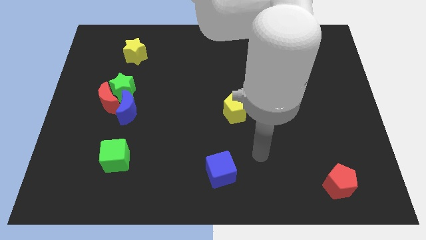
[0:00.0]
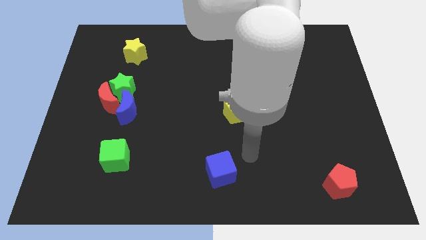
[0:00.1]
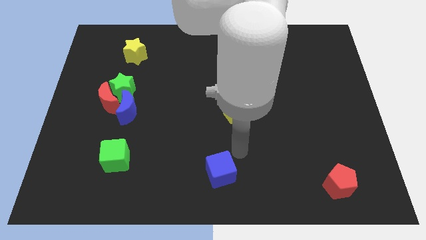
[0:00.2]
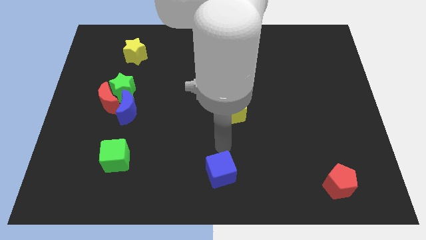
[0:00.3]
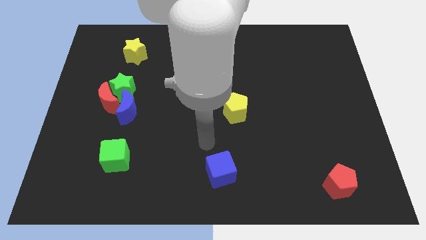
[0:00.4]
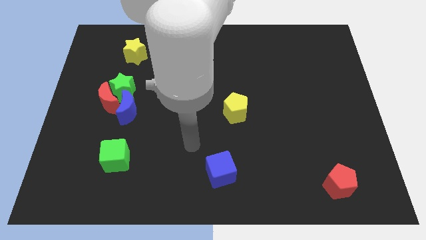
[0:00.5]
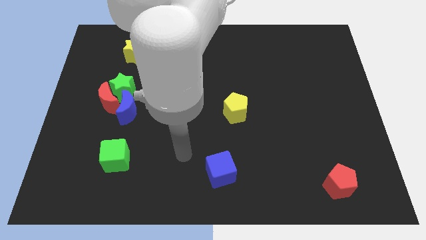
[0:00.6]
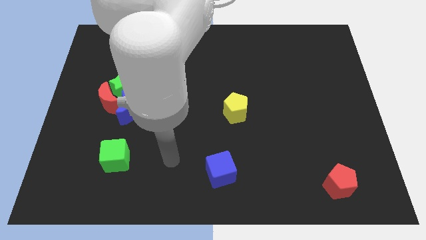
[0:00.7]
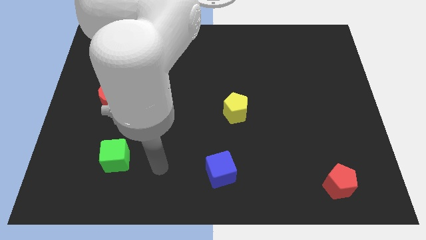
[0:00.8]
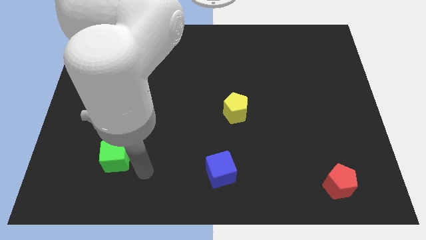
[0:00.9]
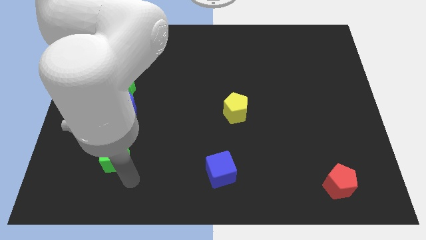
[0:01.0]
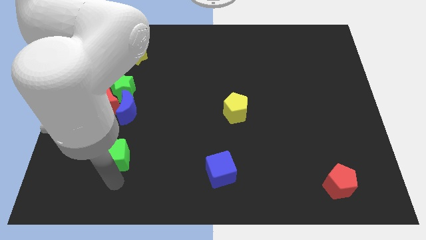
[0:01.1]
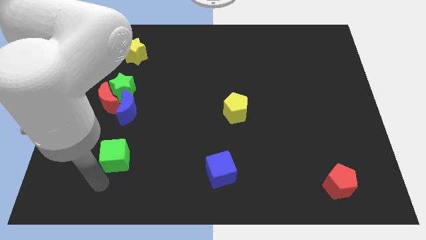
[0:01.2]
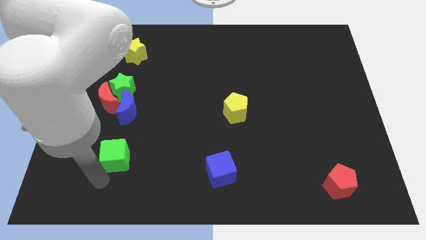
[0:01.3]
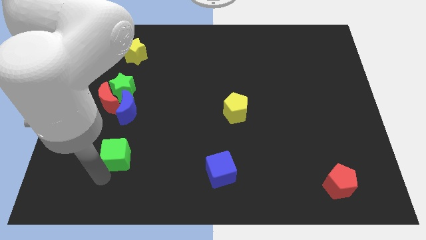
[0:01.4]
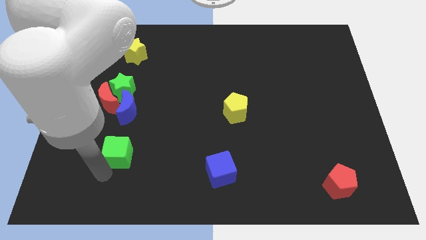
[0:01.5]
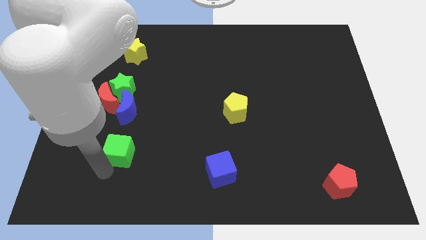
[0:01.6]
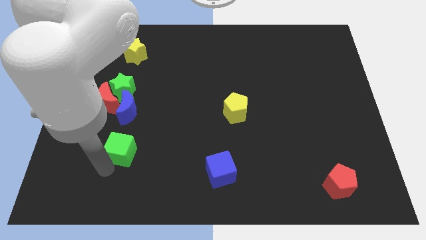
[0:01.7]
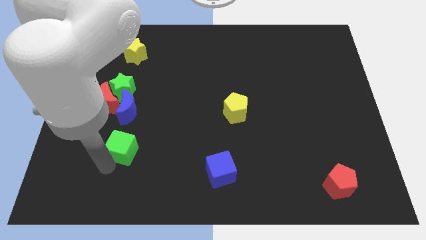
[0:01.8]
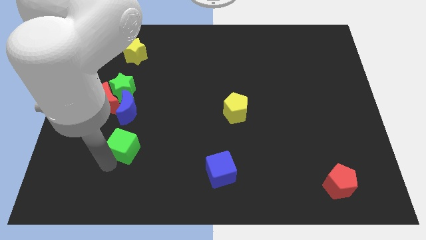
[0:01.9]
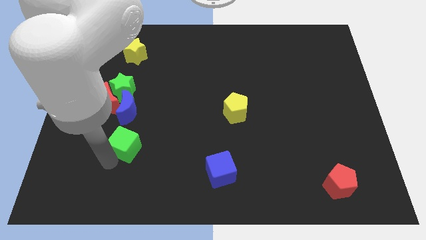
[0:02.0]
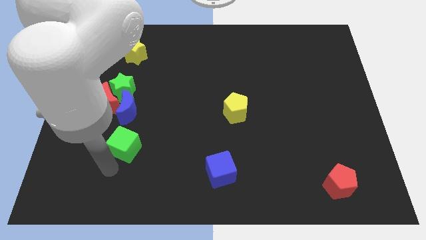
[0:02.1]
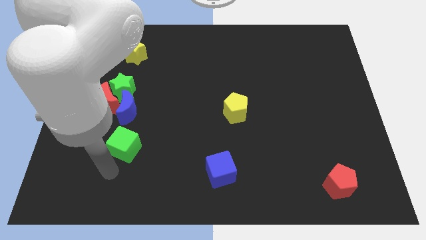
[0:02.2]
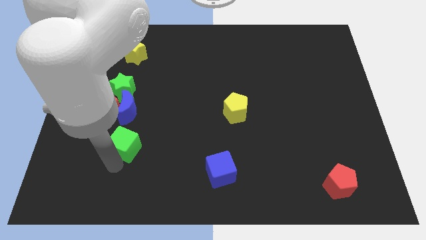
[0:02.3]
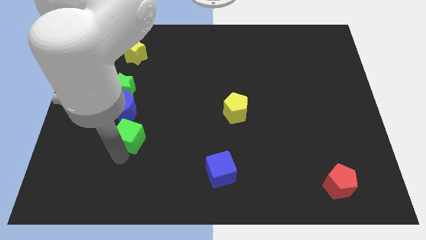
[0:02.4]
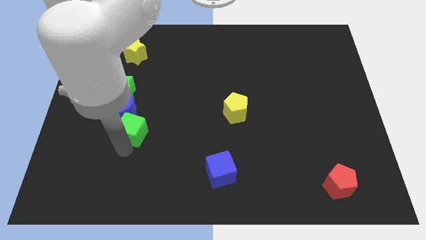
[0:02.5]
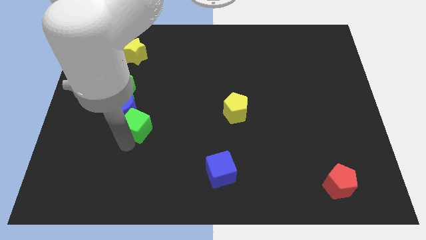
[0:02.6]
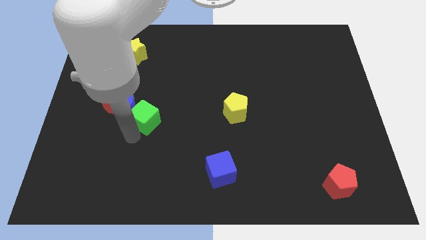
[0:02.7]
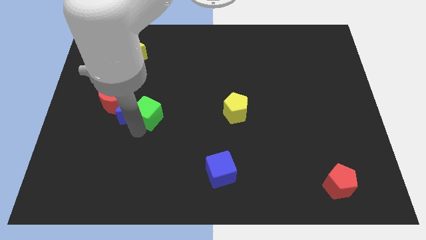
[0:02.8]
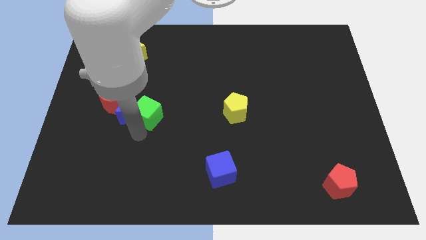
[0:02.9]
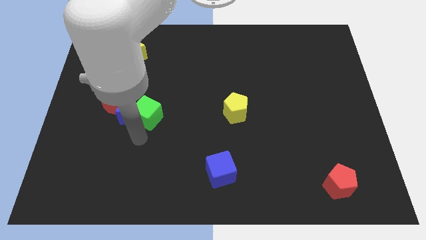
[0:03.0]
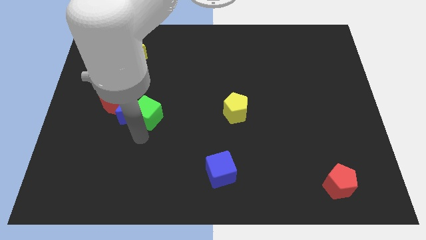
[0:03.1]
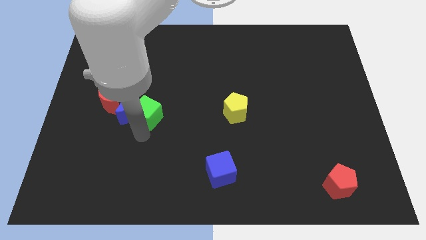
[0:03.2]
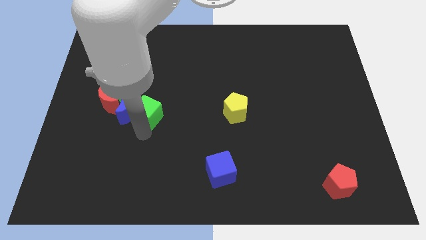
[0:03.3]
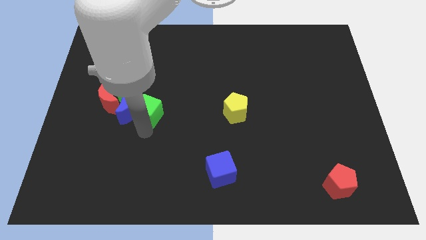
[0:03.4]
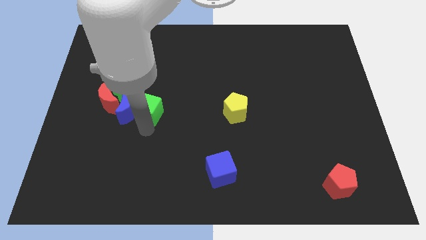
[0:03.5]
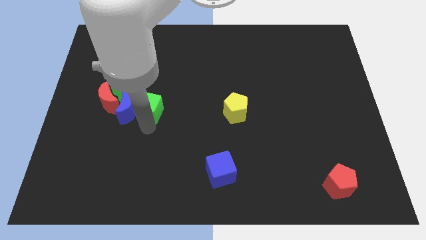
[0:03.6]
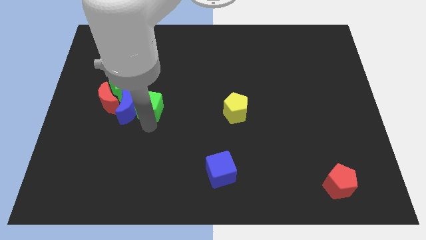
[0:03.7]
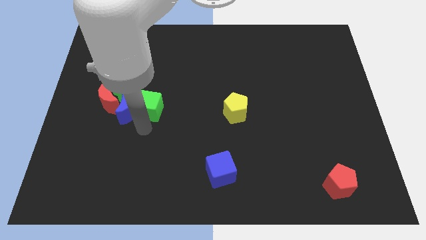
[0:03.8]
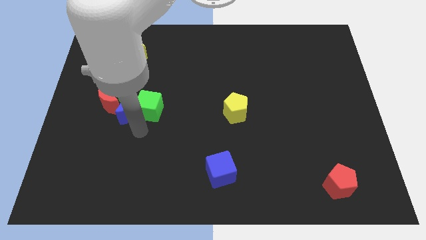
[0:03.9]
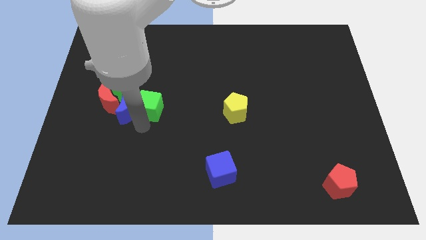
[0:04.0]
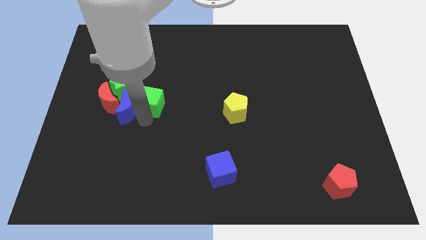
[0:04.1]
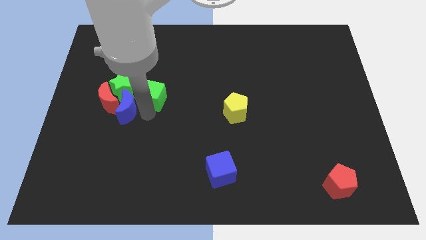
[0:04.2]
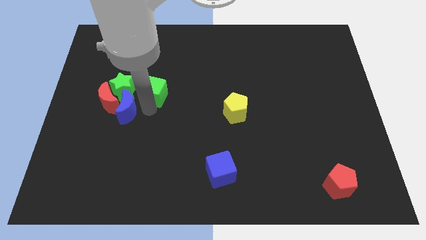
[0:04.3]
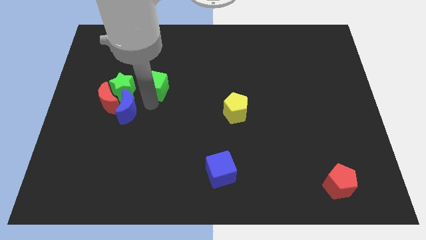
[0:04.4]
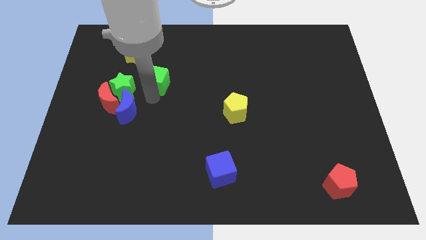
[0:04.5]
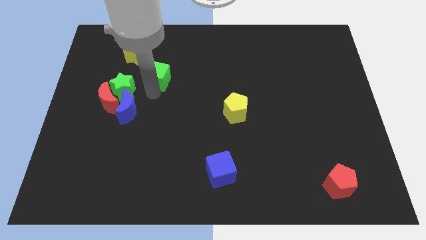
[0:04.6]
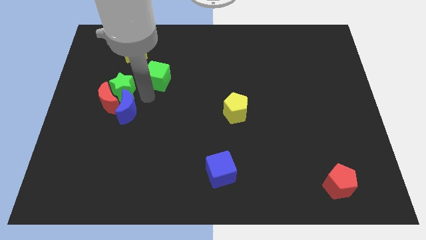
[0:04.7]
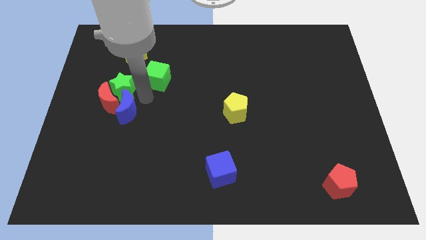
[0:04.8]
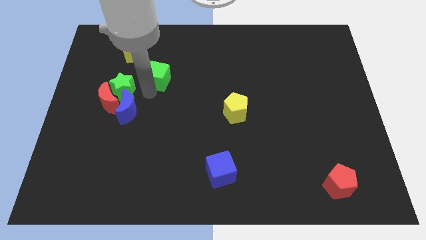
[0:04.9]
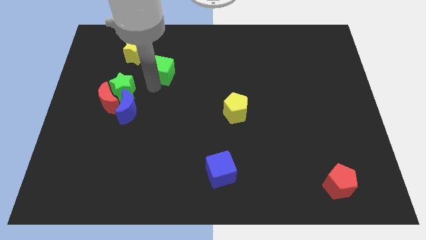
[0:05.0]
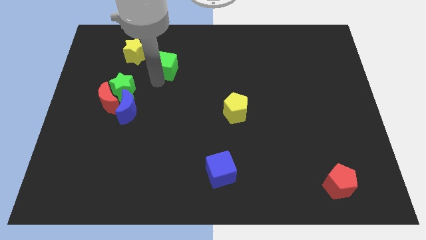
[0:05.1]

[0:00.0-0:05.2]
push the green cube to the right of the yellow star

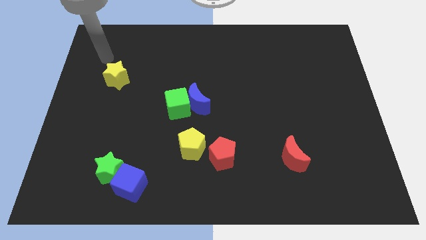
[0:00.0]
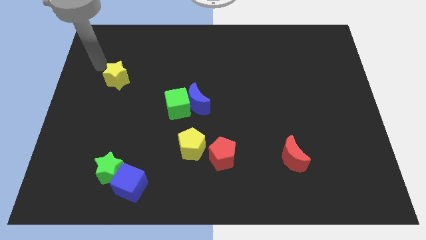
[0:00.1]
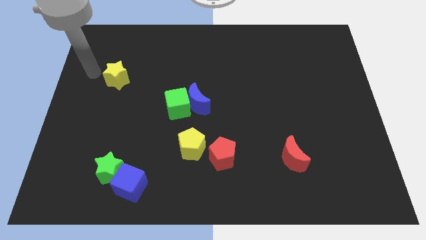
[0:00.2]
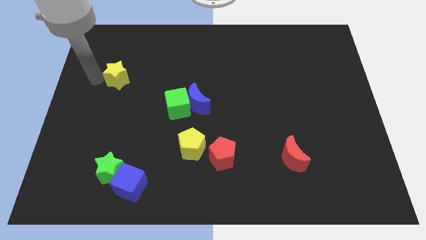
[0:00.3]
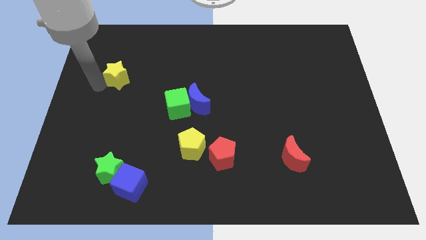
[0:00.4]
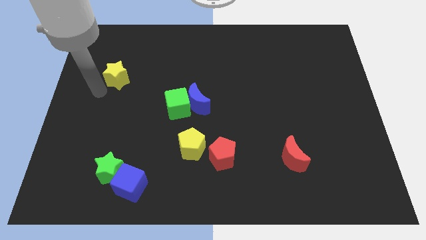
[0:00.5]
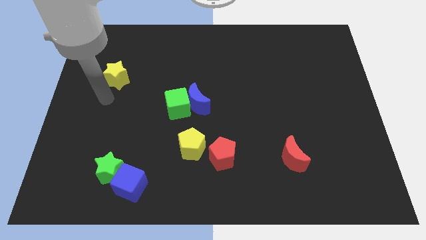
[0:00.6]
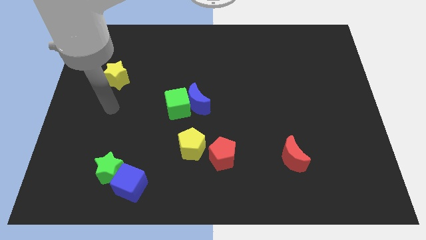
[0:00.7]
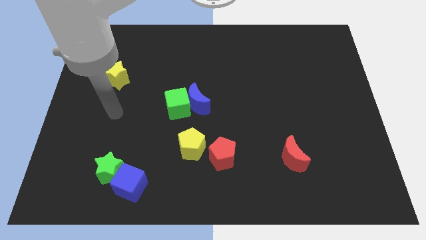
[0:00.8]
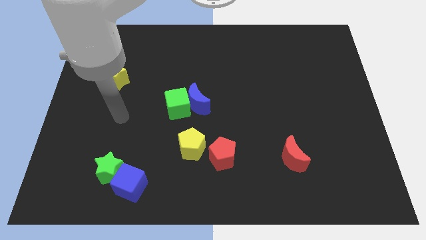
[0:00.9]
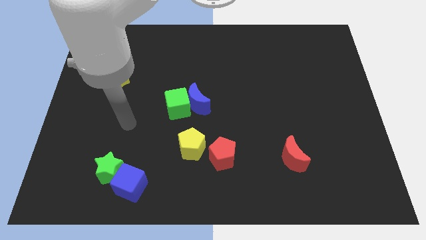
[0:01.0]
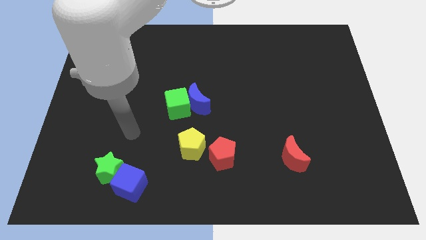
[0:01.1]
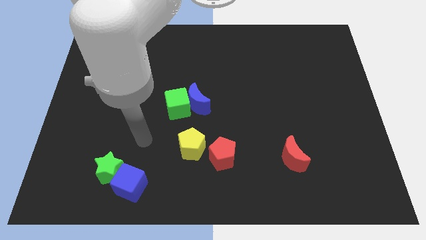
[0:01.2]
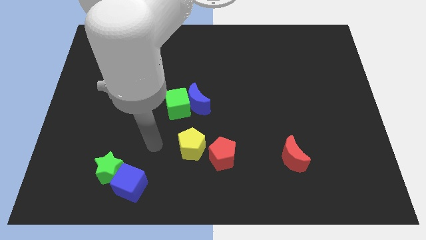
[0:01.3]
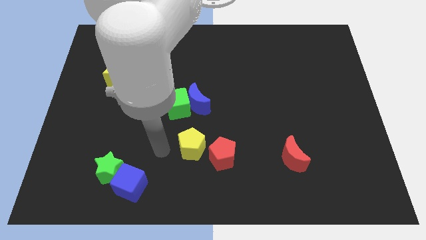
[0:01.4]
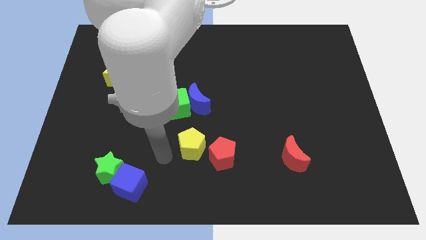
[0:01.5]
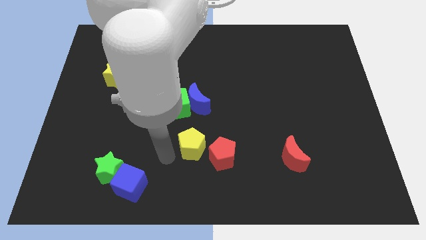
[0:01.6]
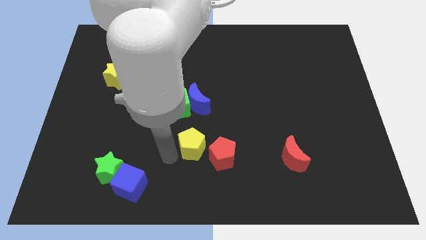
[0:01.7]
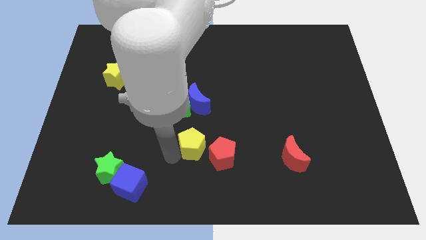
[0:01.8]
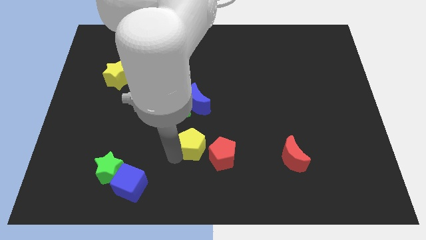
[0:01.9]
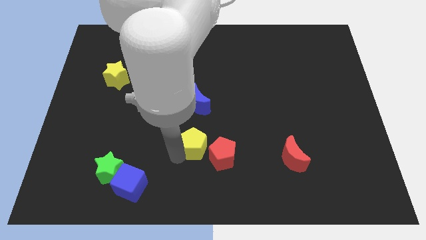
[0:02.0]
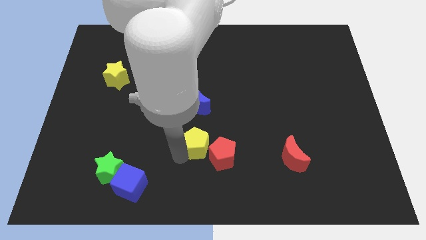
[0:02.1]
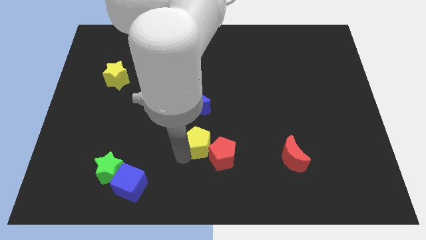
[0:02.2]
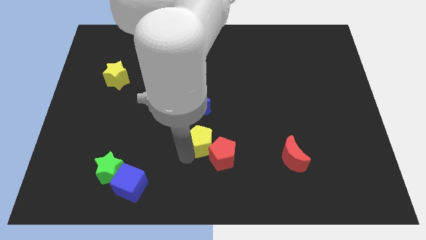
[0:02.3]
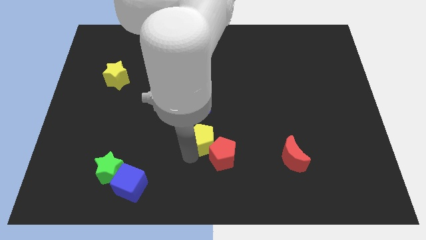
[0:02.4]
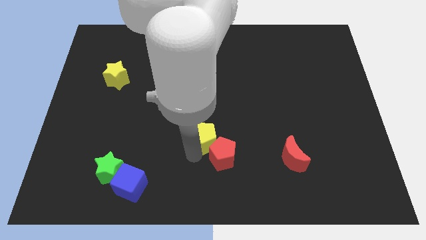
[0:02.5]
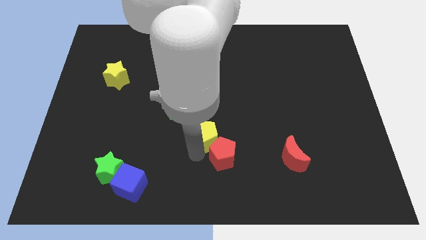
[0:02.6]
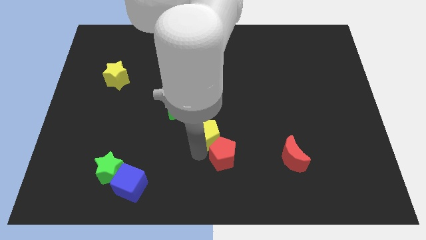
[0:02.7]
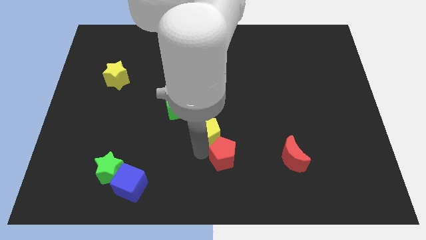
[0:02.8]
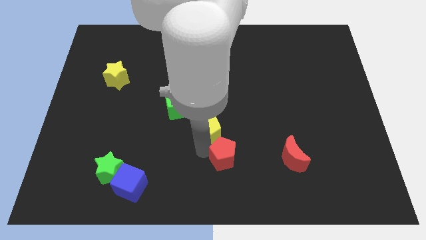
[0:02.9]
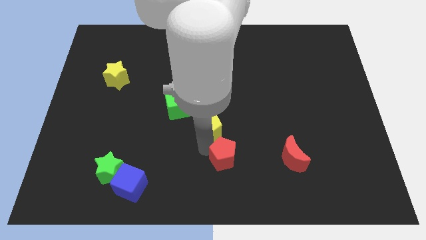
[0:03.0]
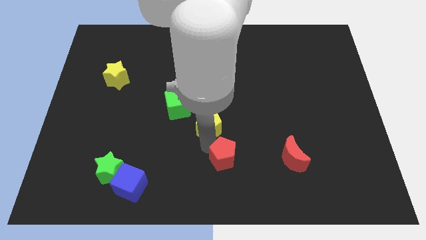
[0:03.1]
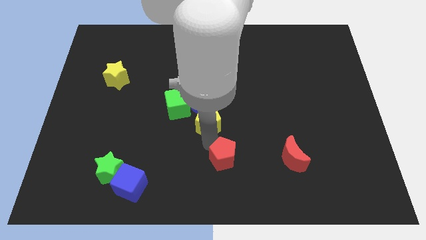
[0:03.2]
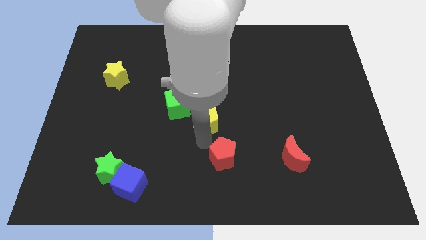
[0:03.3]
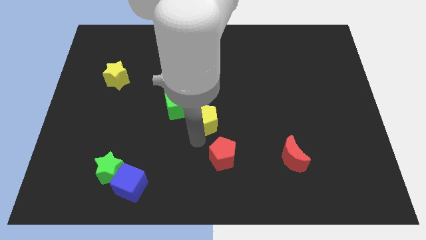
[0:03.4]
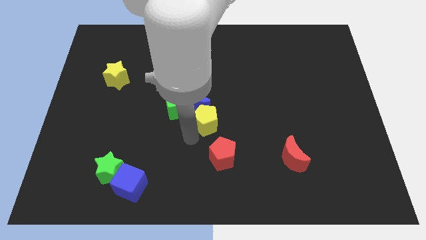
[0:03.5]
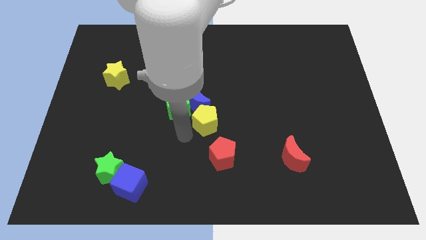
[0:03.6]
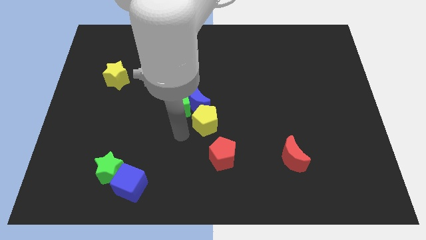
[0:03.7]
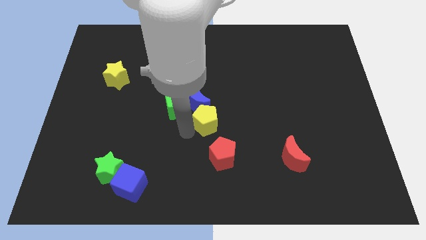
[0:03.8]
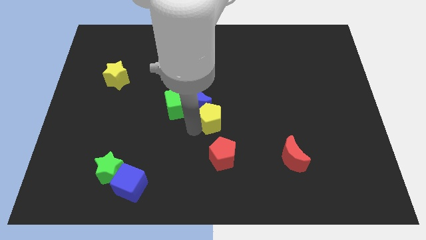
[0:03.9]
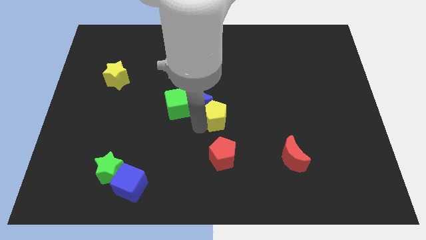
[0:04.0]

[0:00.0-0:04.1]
put the yellow pentagon just right of the blue moon
